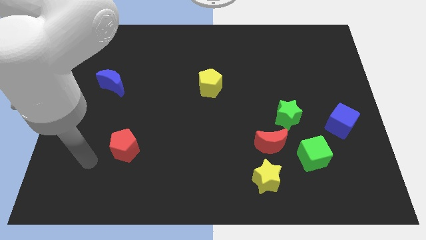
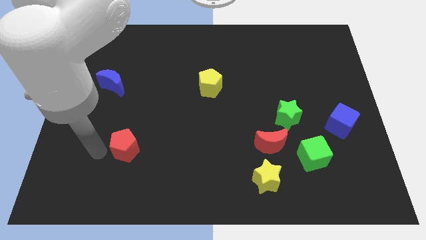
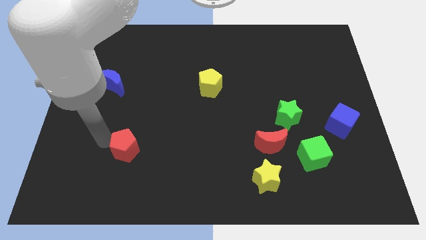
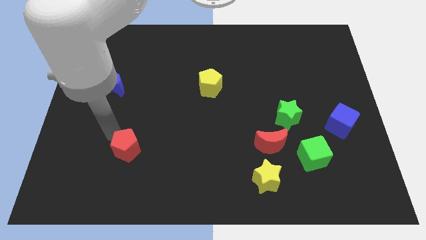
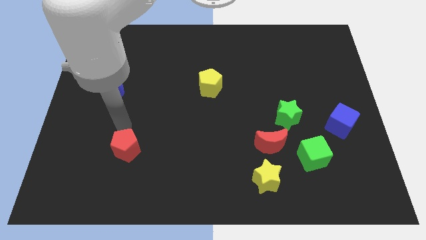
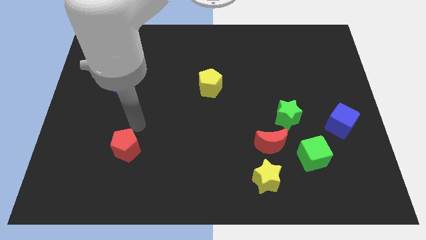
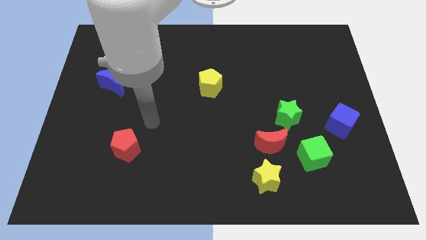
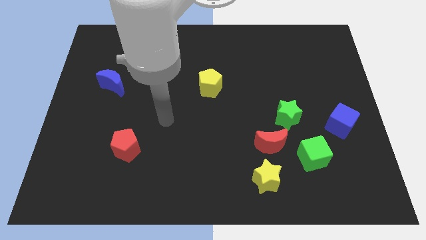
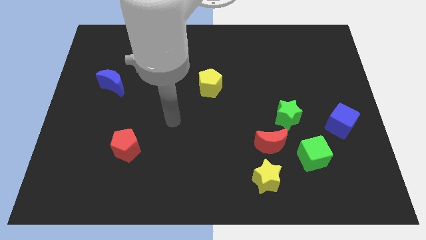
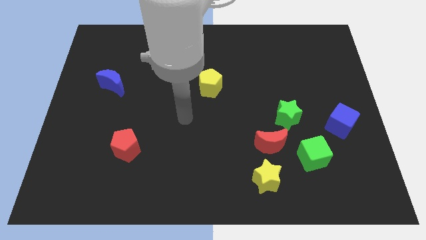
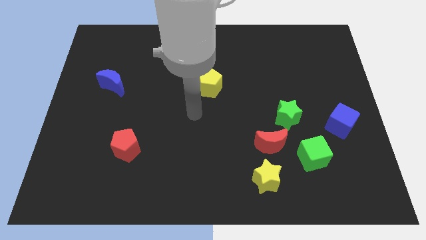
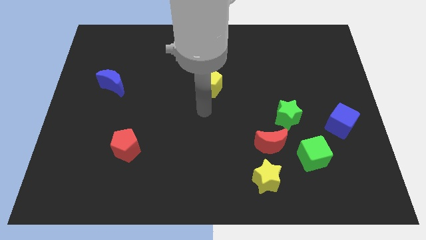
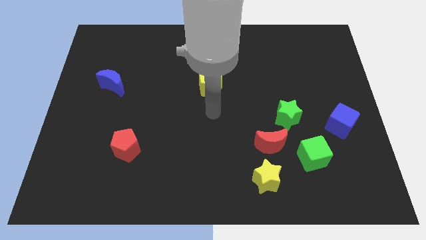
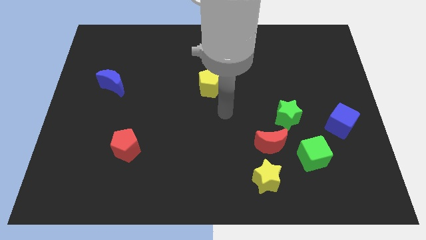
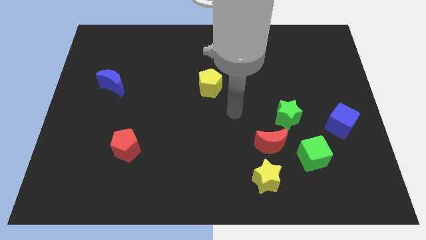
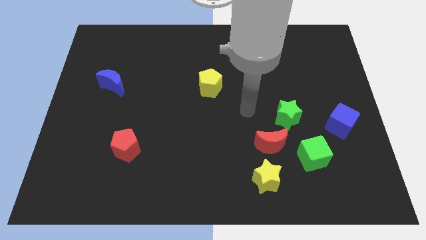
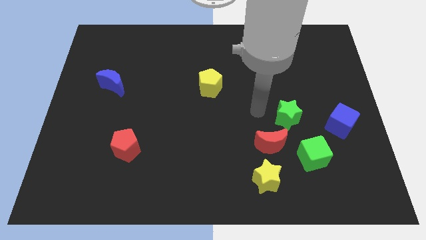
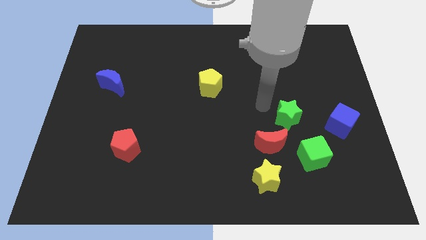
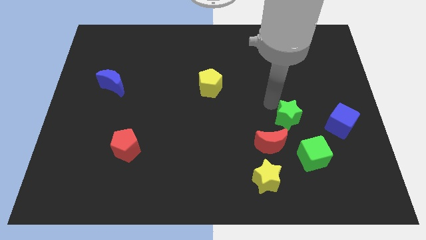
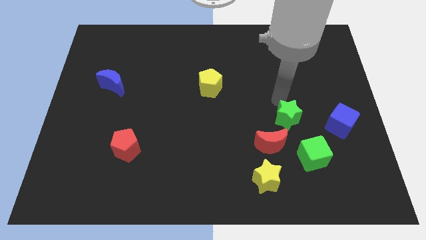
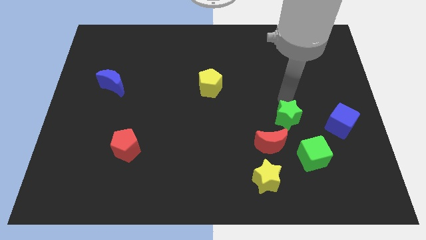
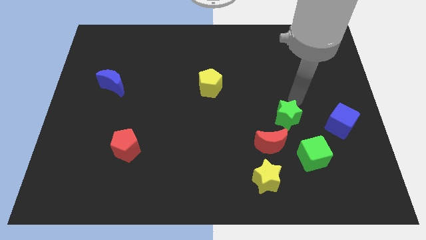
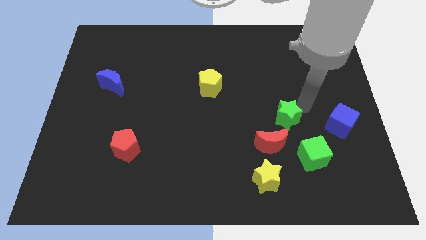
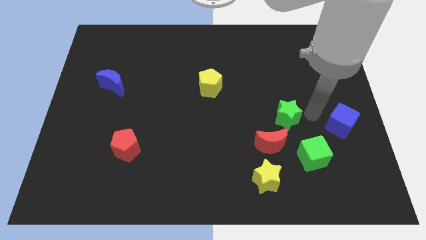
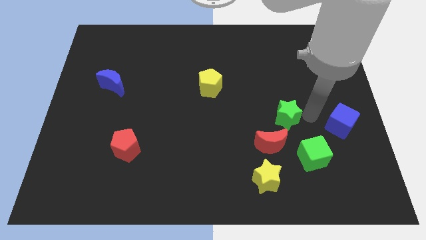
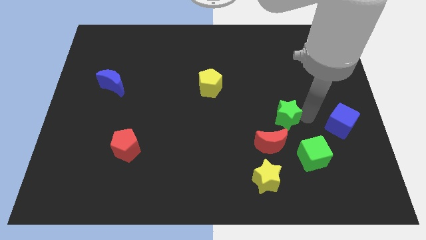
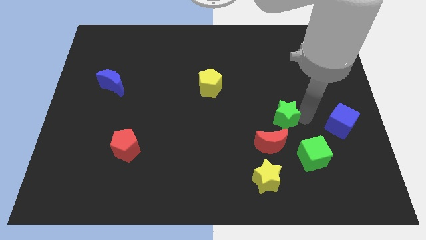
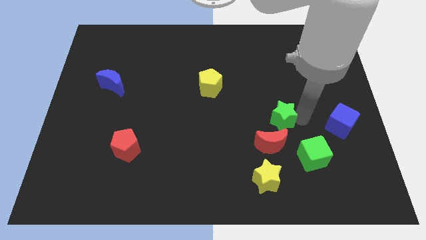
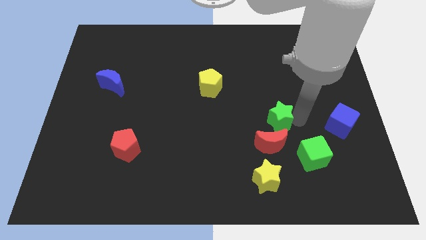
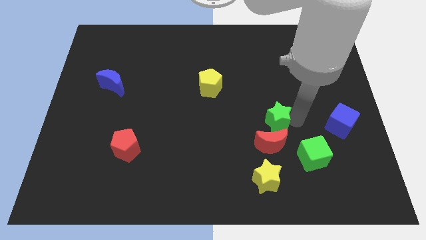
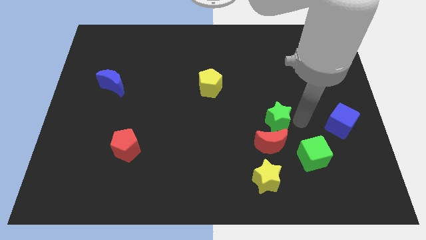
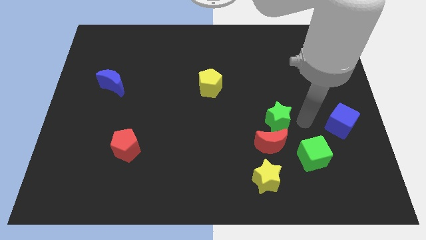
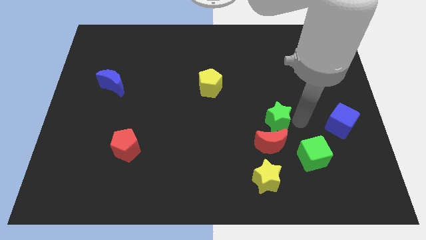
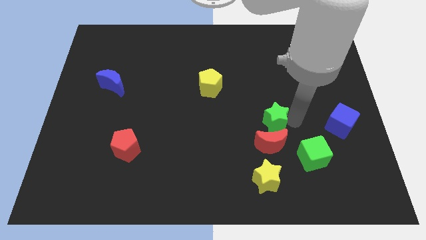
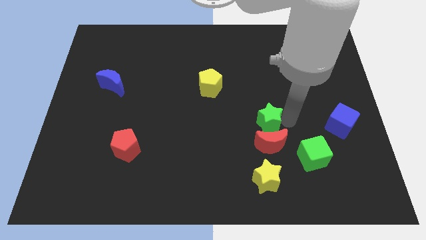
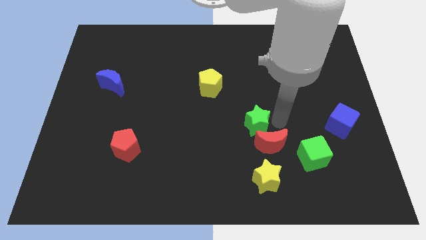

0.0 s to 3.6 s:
slightly push the green star left

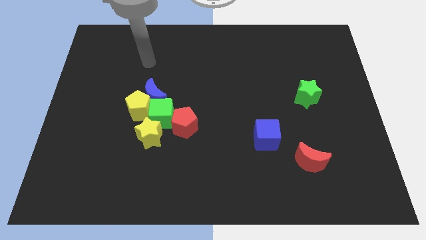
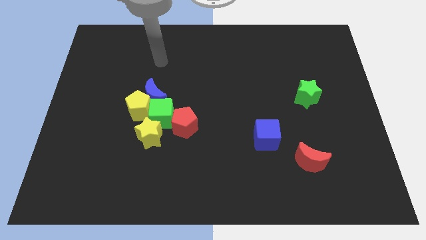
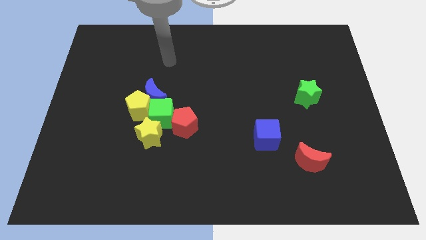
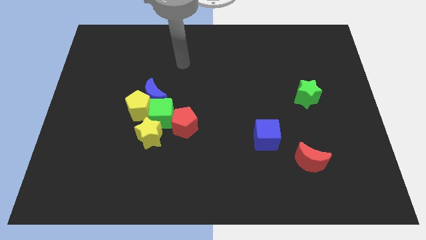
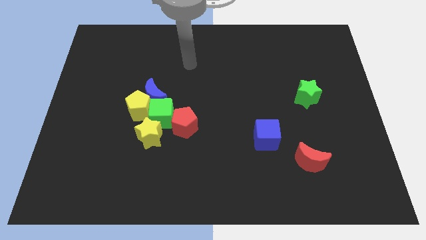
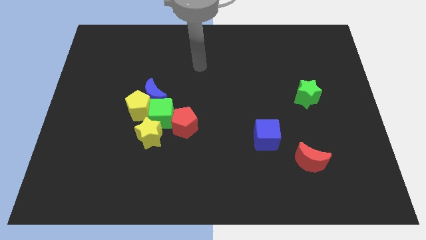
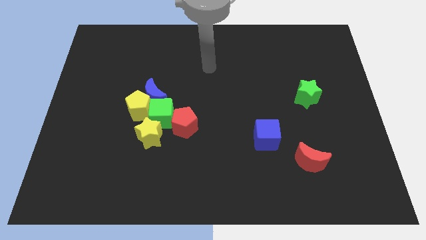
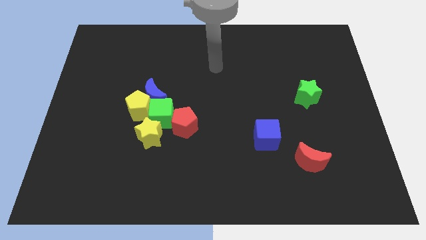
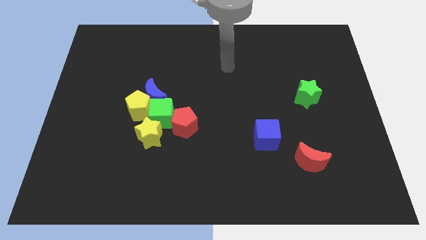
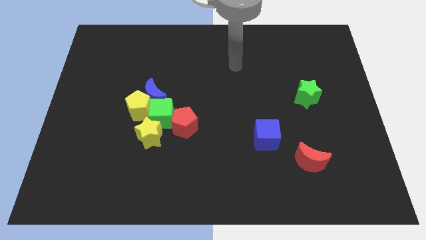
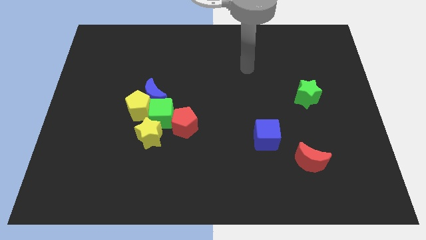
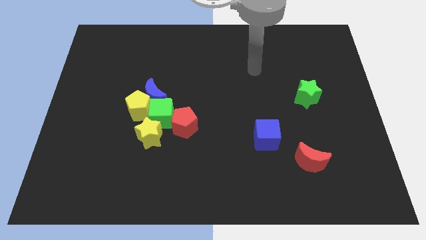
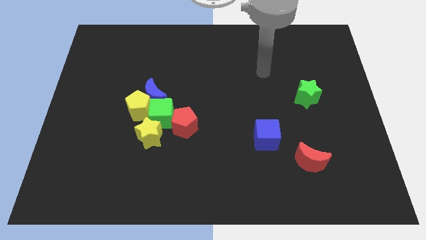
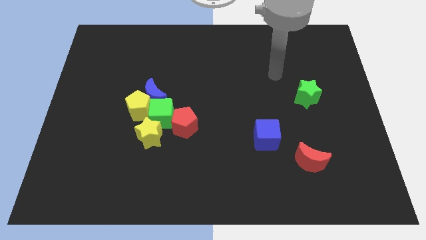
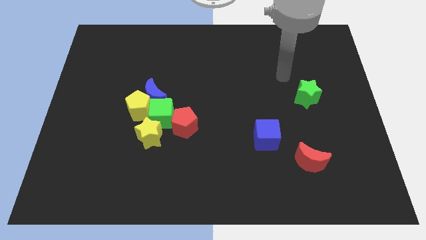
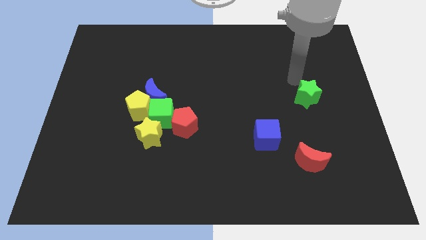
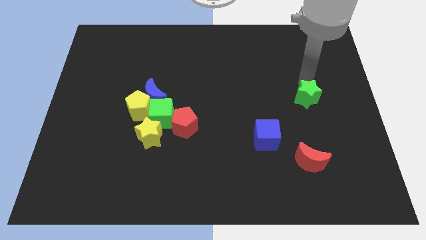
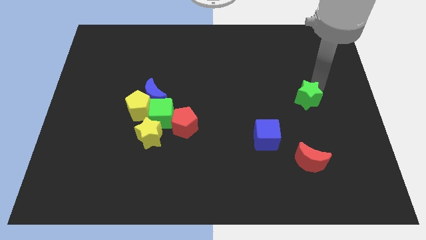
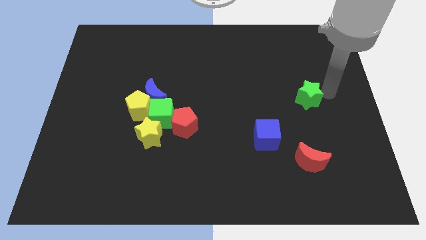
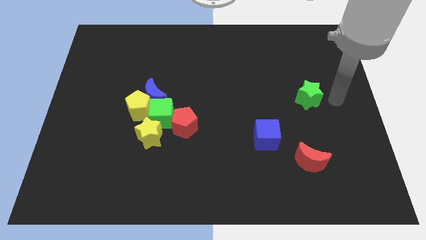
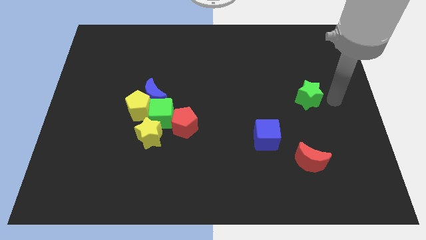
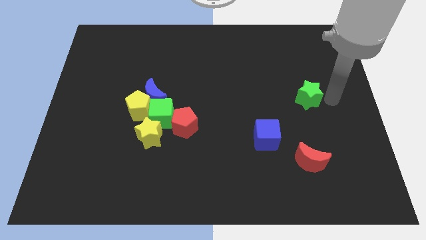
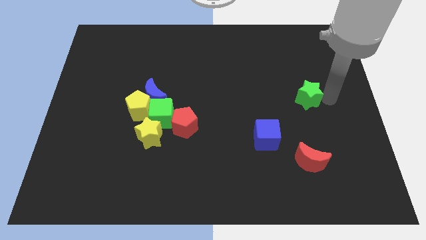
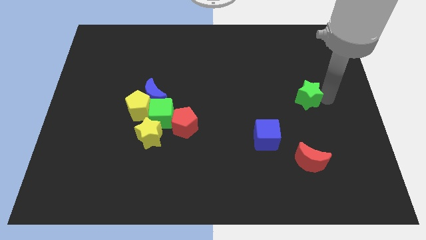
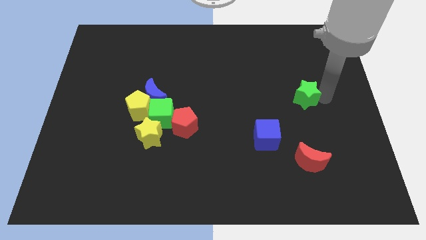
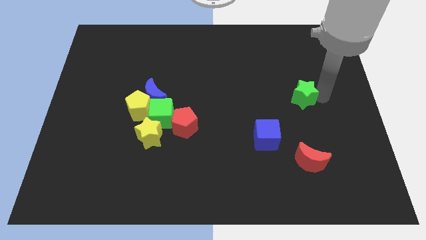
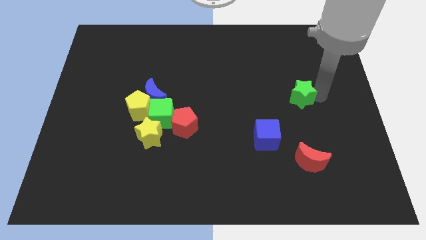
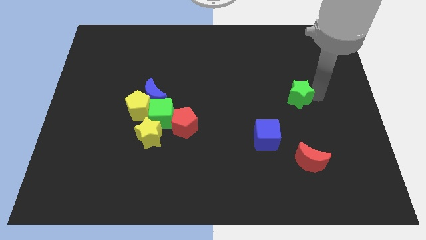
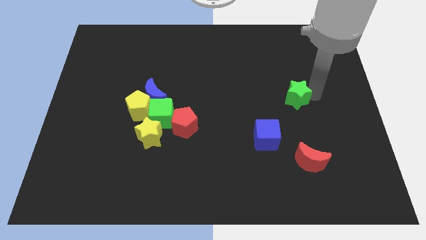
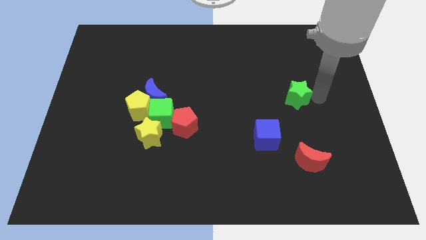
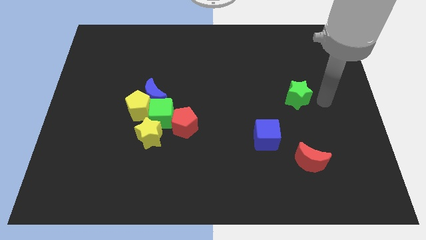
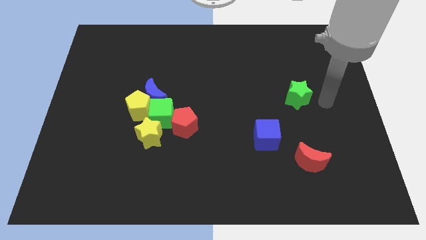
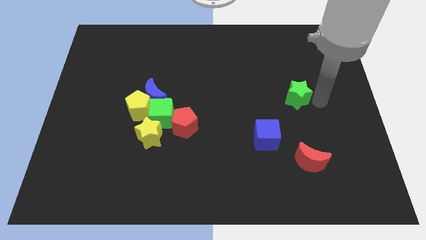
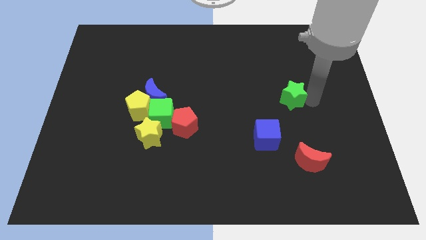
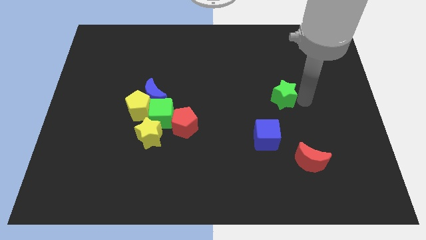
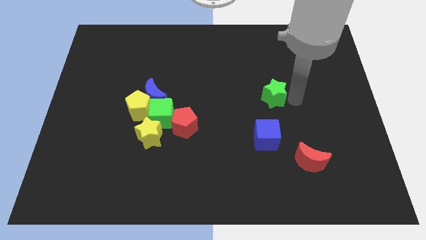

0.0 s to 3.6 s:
slightly push the green star to the left

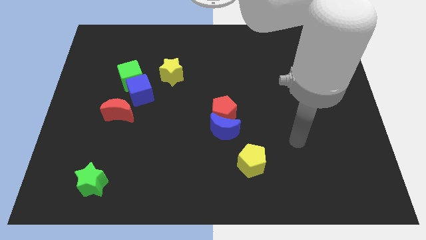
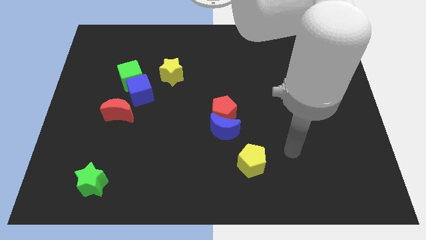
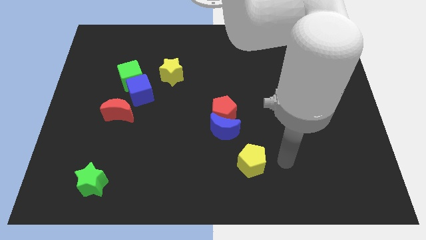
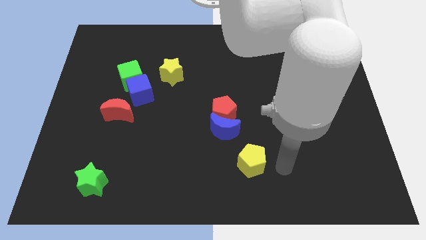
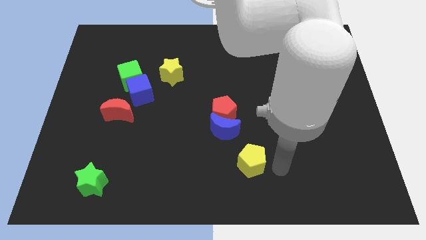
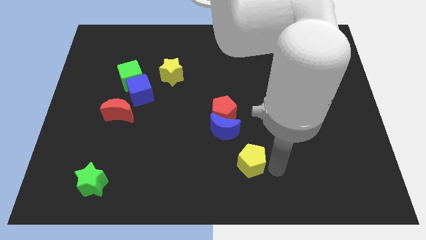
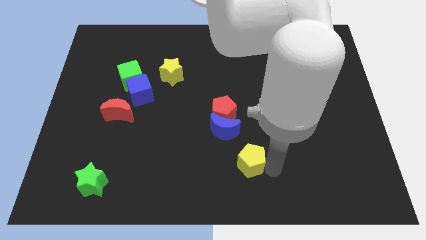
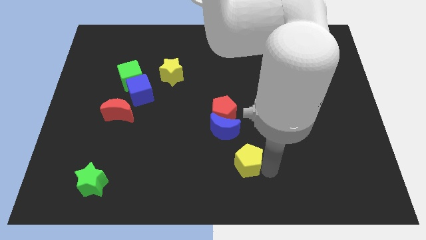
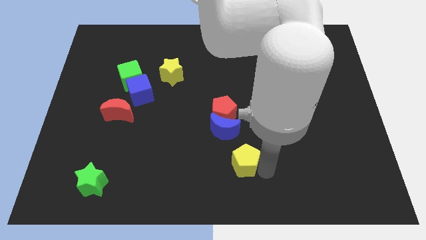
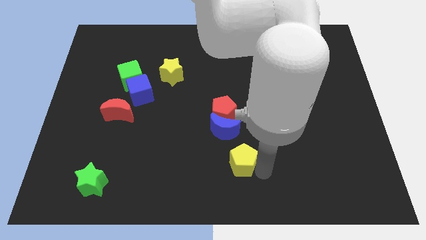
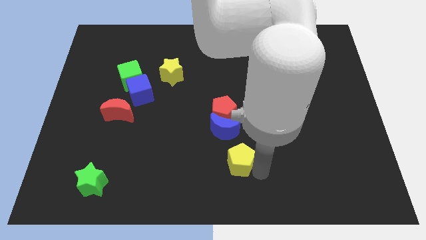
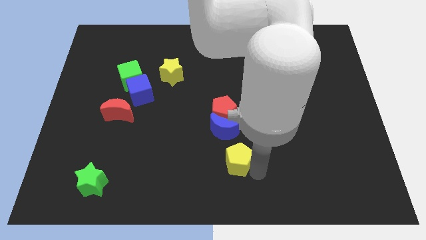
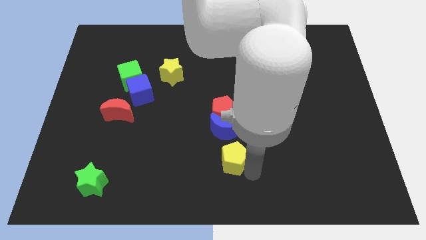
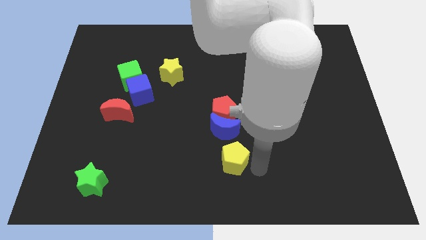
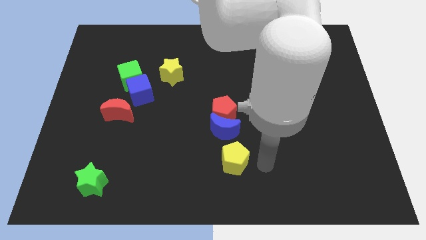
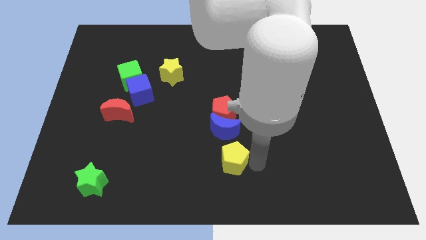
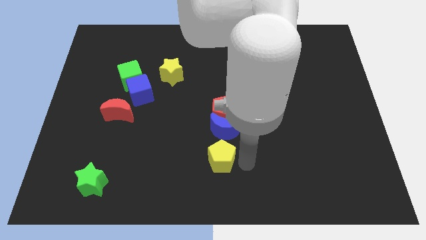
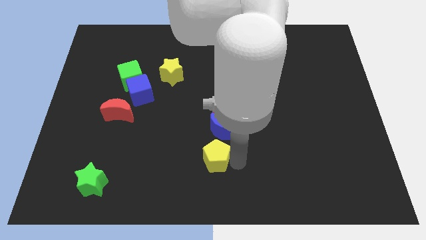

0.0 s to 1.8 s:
push the yellow pentagon left somewhat
